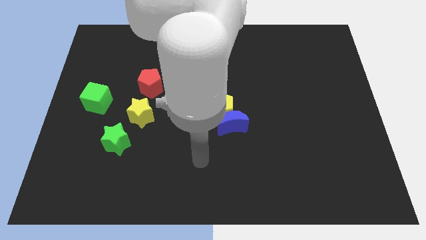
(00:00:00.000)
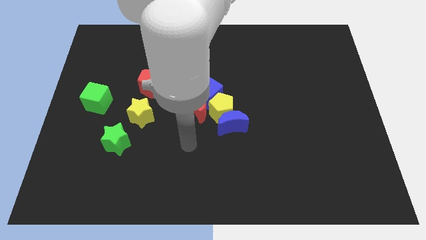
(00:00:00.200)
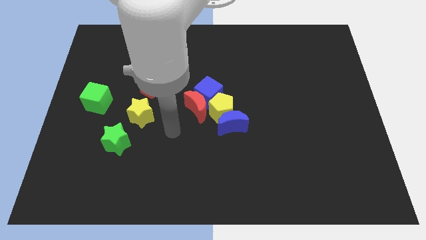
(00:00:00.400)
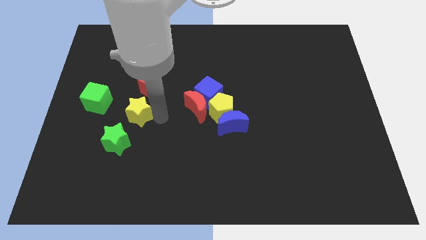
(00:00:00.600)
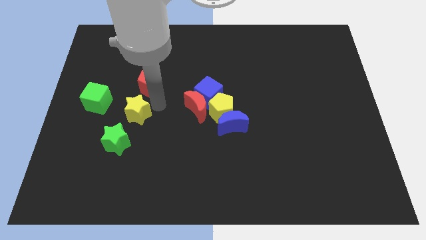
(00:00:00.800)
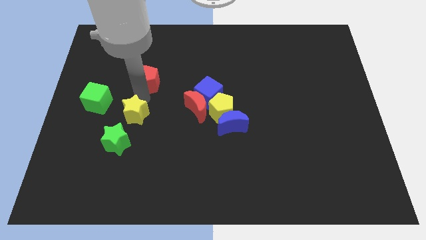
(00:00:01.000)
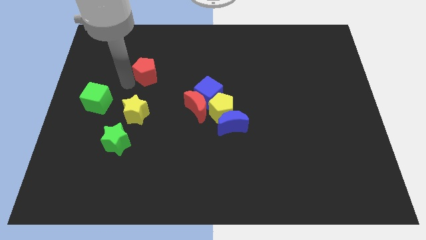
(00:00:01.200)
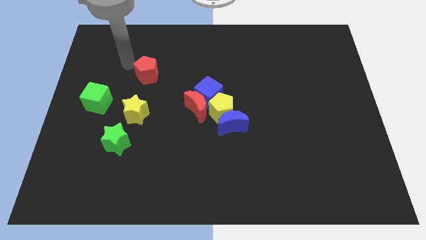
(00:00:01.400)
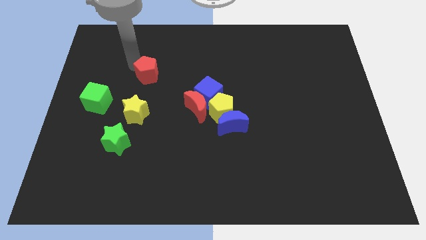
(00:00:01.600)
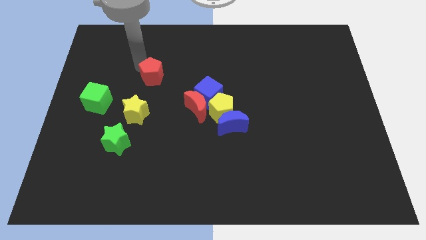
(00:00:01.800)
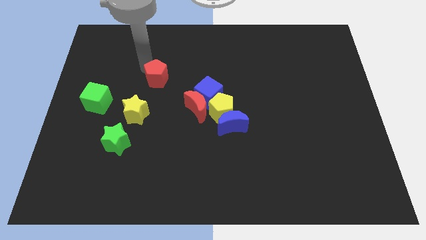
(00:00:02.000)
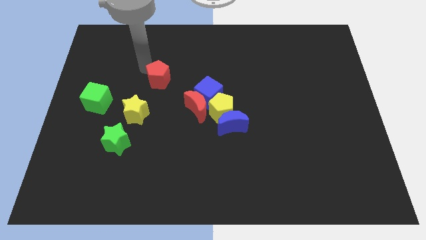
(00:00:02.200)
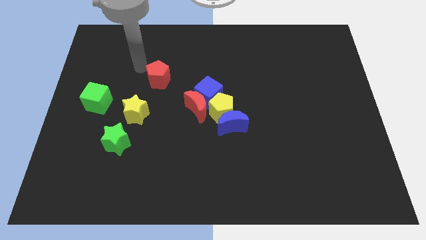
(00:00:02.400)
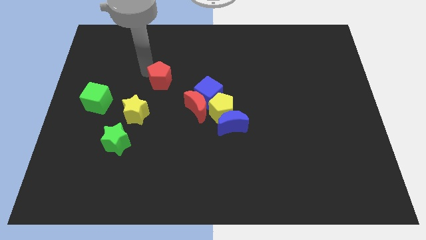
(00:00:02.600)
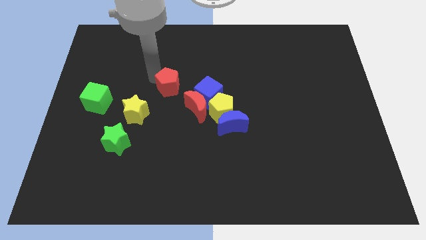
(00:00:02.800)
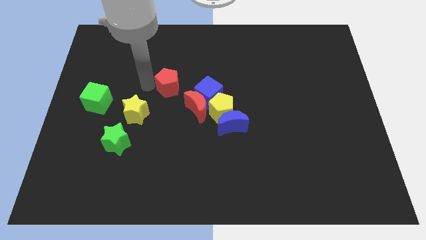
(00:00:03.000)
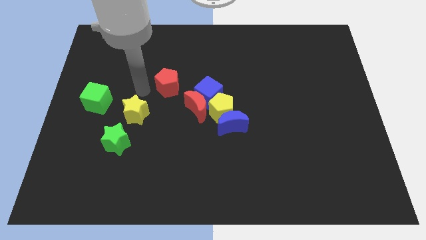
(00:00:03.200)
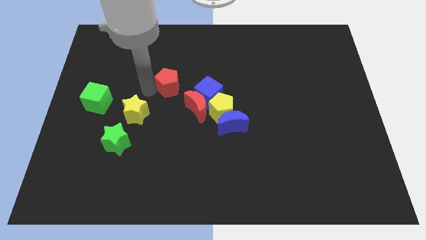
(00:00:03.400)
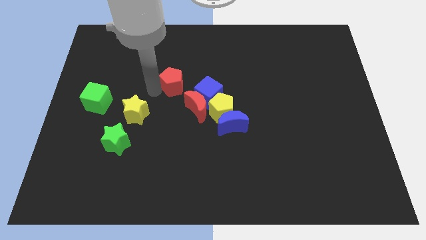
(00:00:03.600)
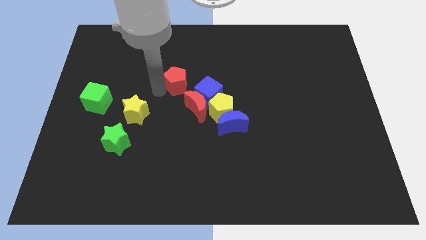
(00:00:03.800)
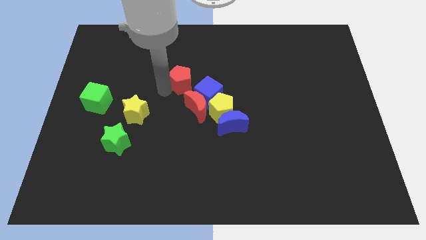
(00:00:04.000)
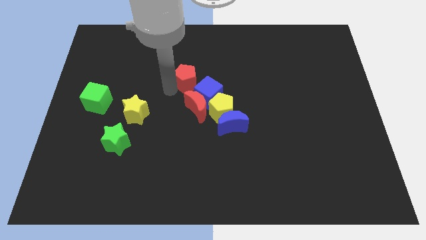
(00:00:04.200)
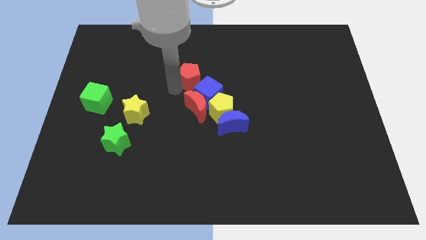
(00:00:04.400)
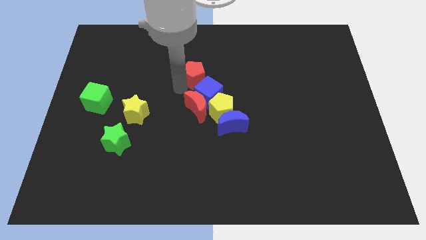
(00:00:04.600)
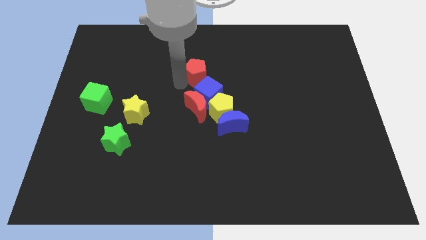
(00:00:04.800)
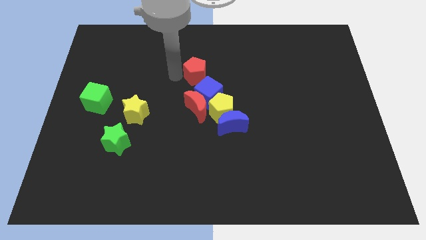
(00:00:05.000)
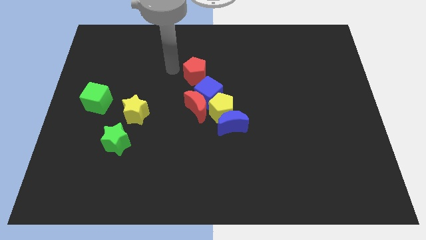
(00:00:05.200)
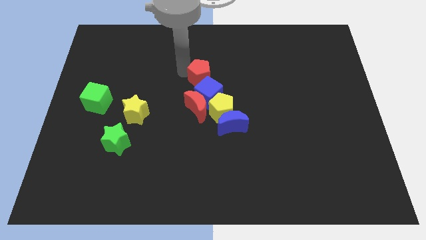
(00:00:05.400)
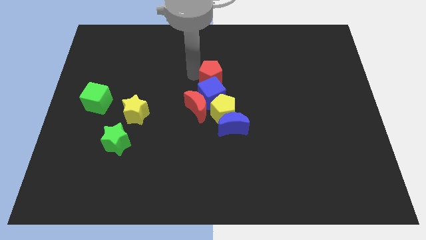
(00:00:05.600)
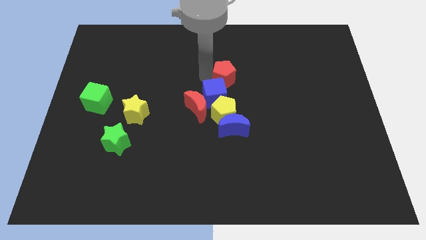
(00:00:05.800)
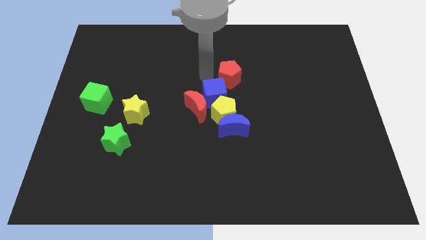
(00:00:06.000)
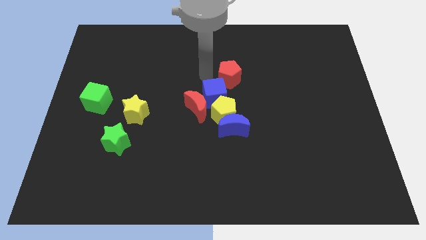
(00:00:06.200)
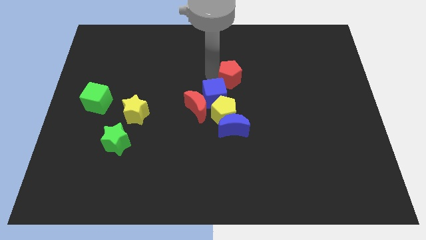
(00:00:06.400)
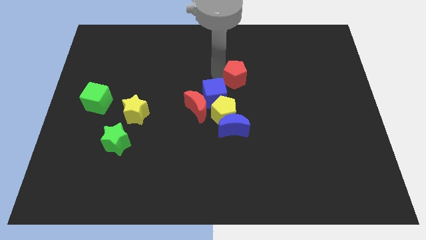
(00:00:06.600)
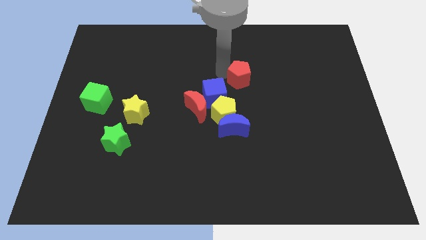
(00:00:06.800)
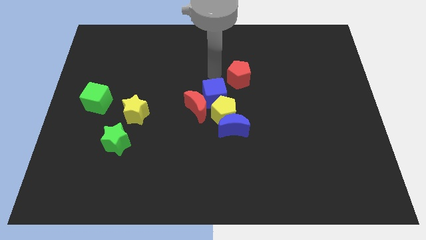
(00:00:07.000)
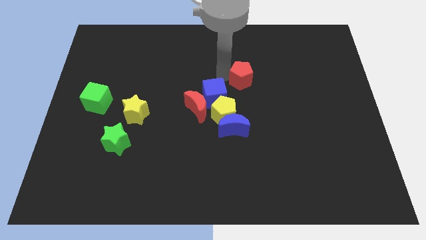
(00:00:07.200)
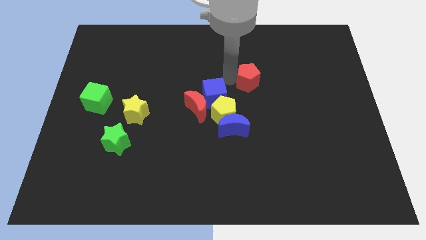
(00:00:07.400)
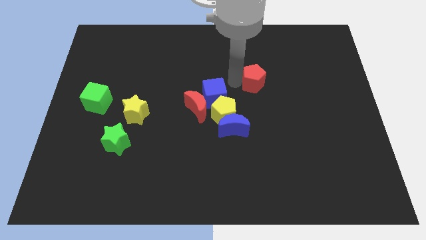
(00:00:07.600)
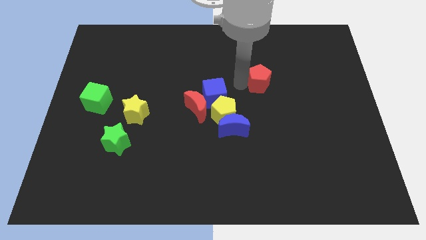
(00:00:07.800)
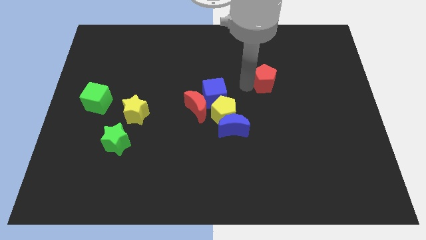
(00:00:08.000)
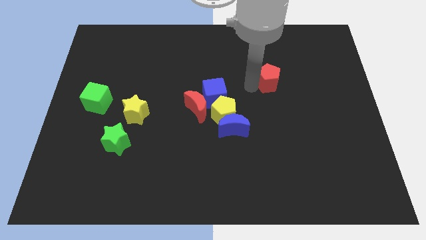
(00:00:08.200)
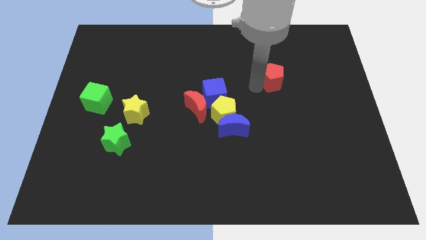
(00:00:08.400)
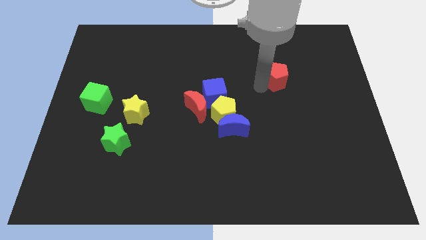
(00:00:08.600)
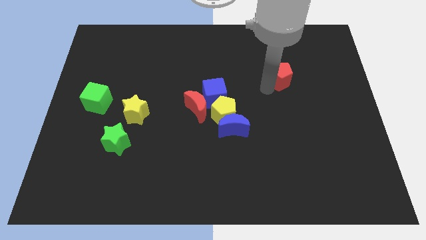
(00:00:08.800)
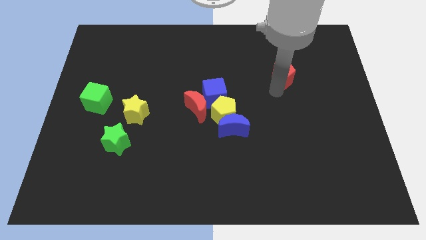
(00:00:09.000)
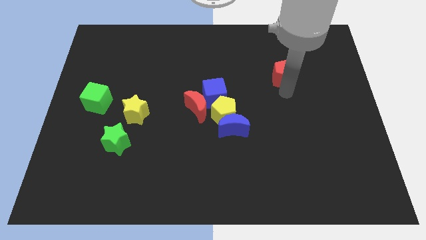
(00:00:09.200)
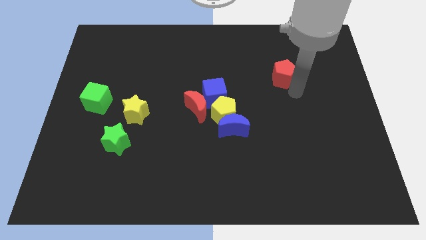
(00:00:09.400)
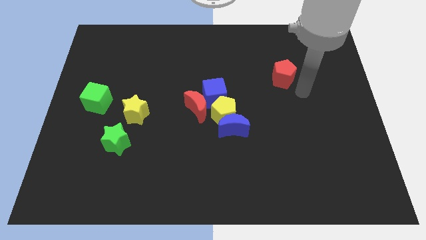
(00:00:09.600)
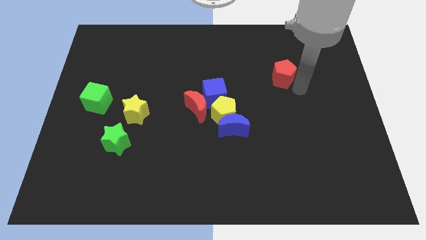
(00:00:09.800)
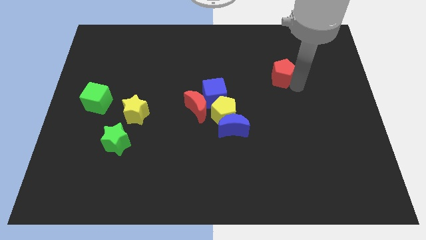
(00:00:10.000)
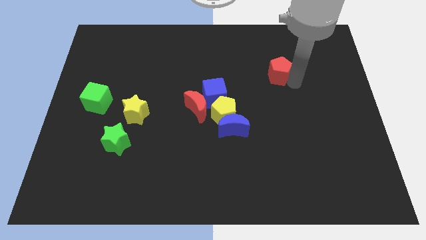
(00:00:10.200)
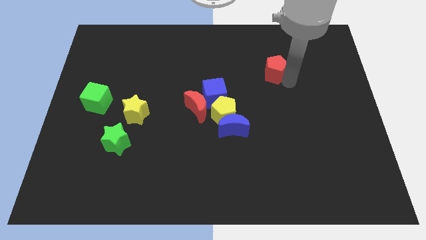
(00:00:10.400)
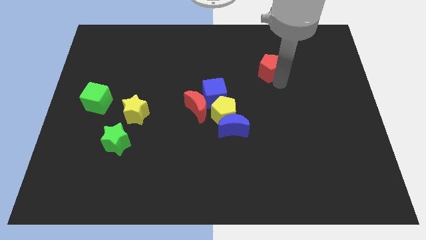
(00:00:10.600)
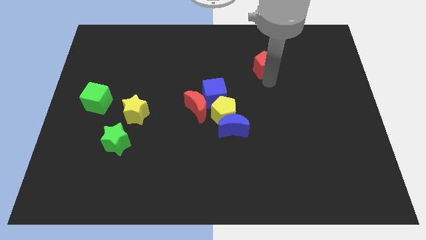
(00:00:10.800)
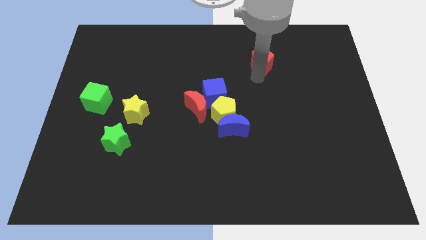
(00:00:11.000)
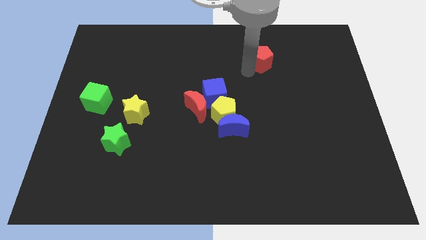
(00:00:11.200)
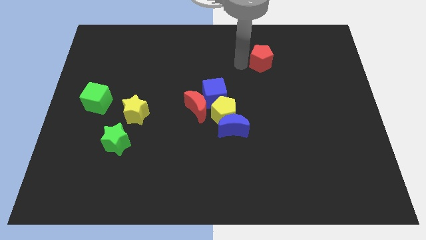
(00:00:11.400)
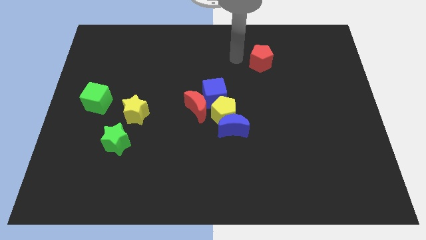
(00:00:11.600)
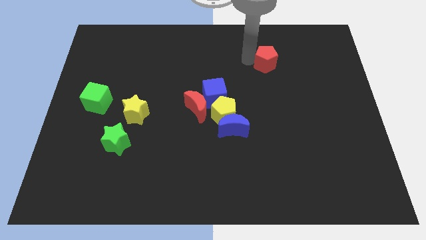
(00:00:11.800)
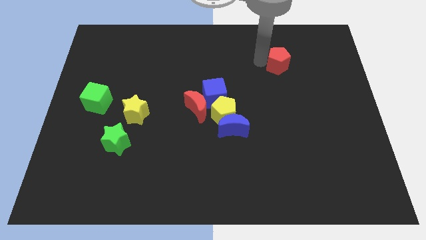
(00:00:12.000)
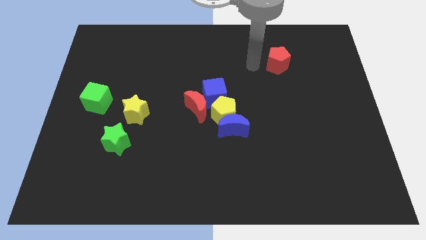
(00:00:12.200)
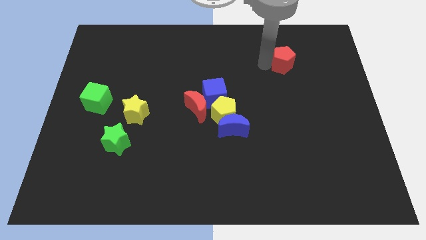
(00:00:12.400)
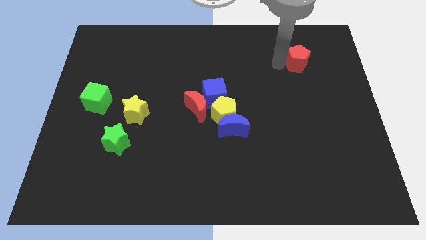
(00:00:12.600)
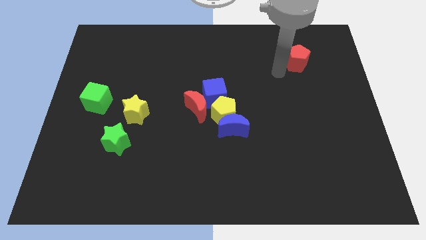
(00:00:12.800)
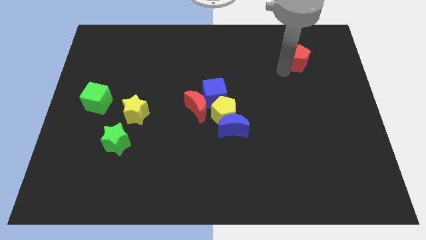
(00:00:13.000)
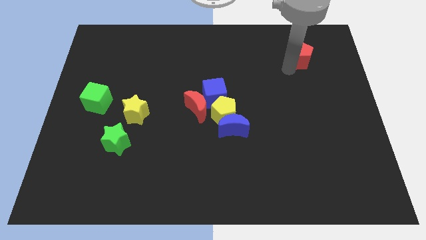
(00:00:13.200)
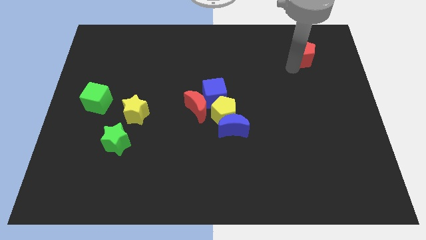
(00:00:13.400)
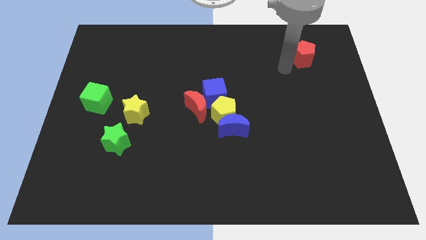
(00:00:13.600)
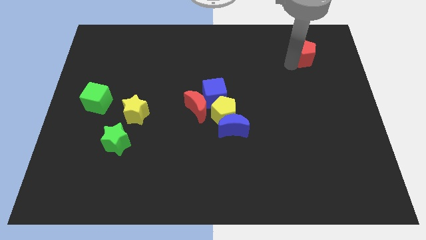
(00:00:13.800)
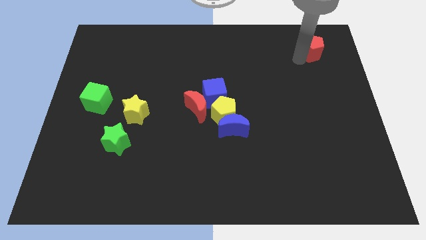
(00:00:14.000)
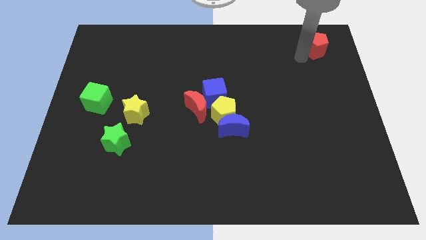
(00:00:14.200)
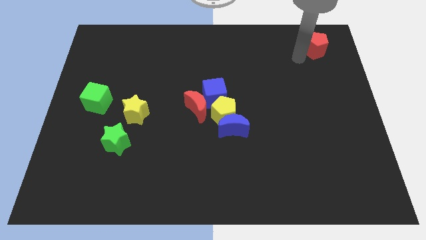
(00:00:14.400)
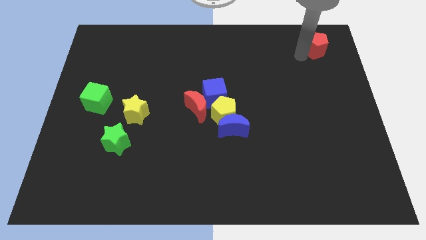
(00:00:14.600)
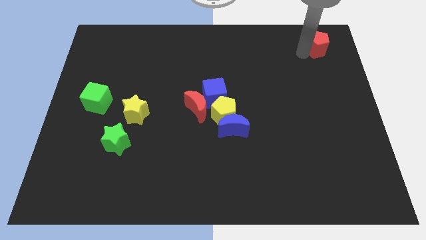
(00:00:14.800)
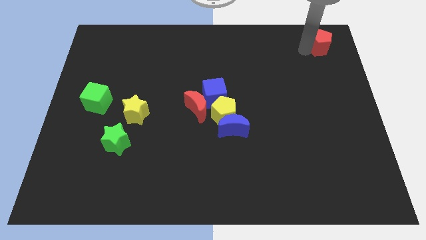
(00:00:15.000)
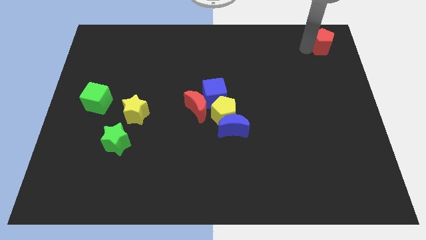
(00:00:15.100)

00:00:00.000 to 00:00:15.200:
put the red pentagon to the top right of the board
